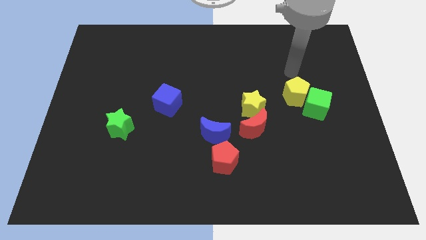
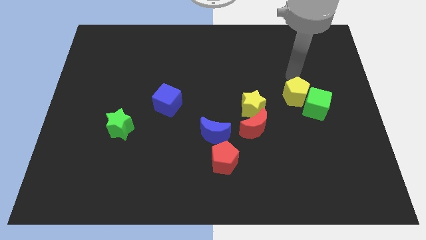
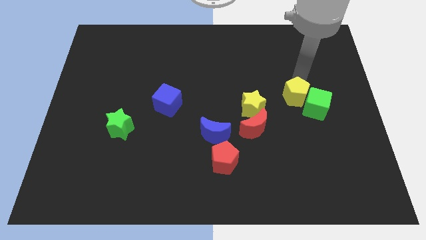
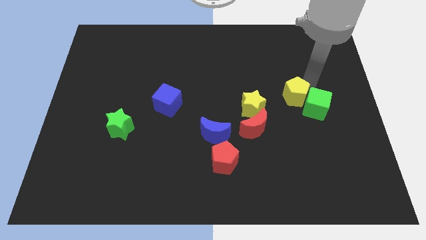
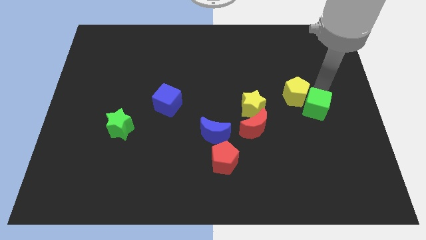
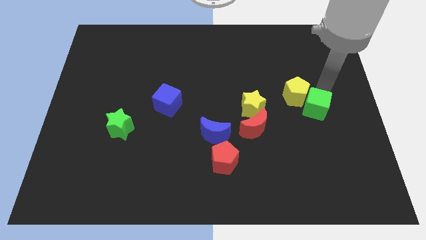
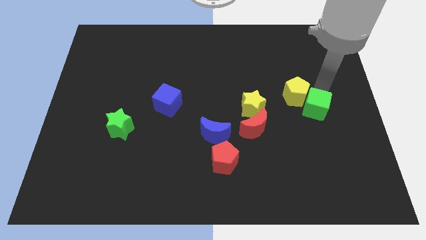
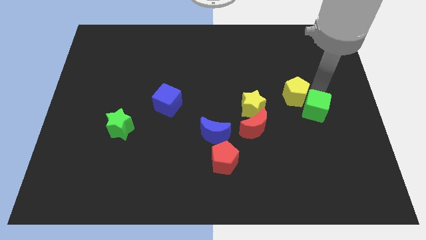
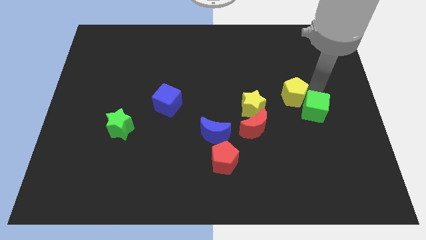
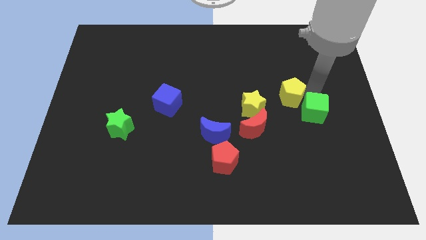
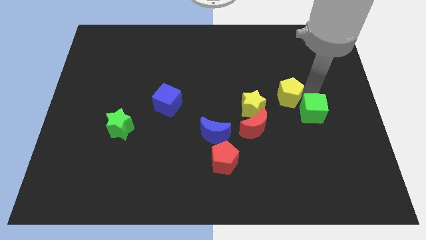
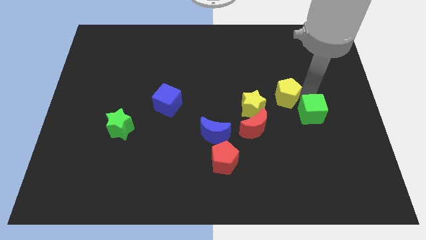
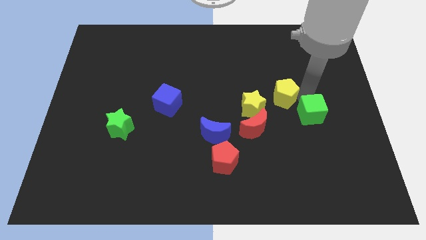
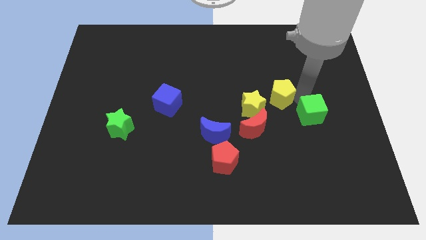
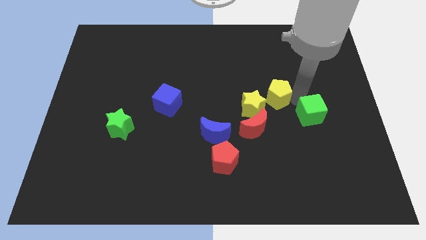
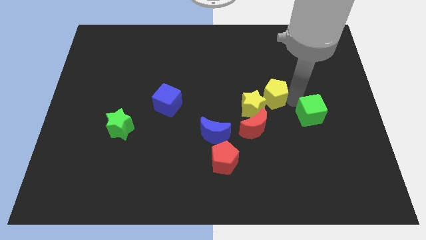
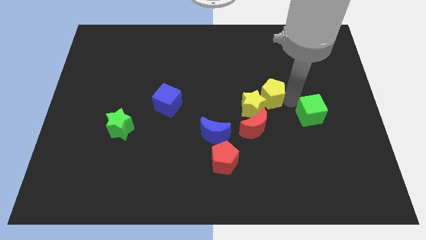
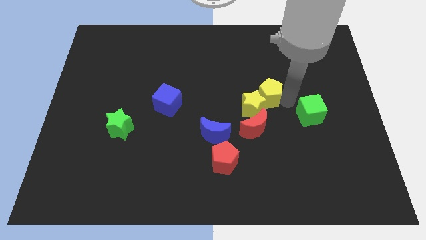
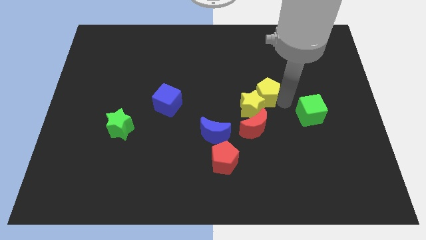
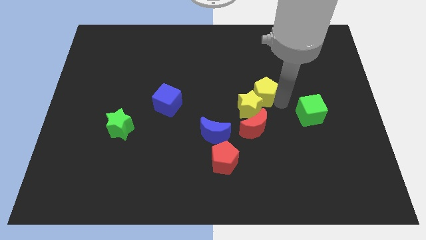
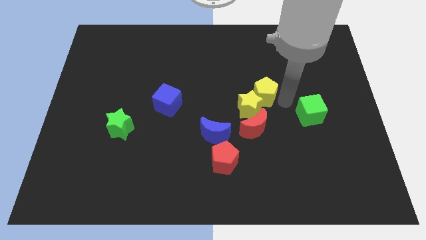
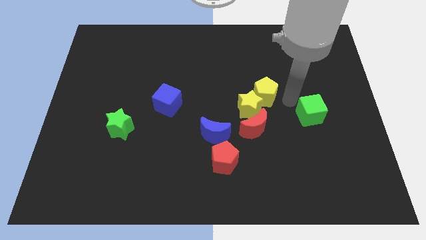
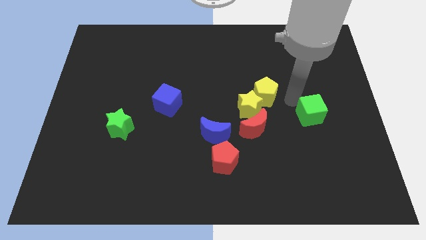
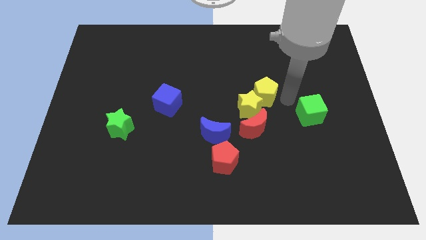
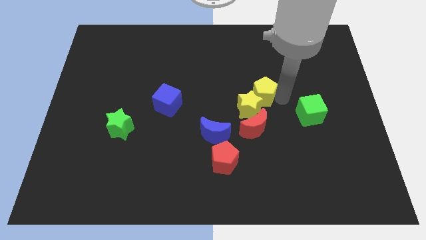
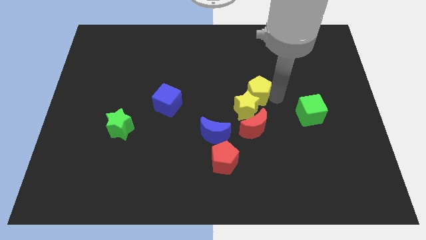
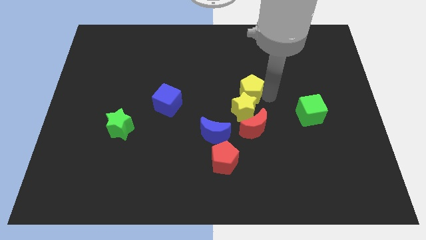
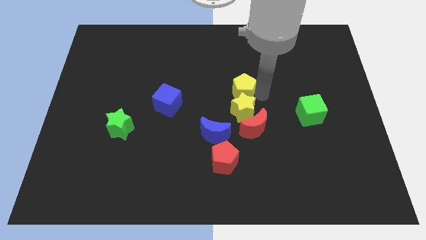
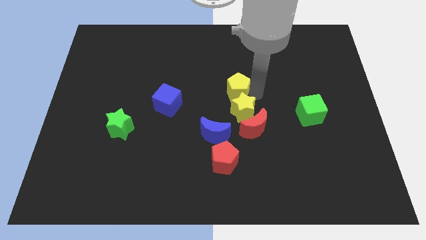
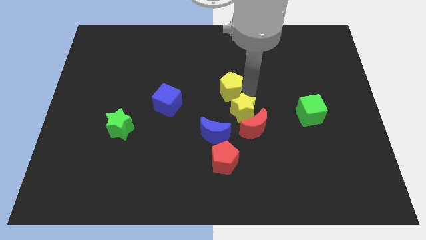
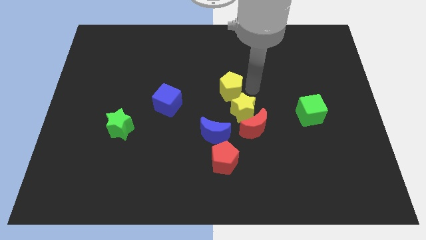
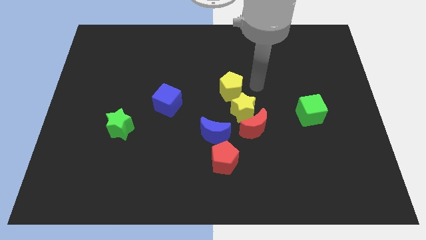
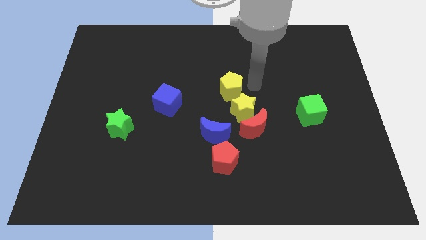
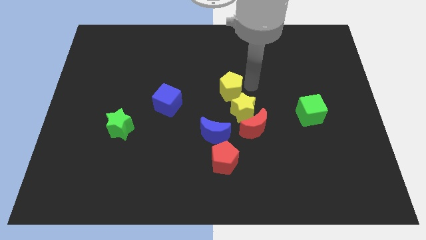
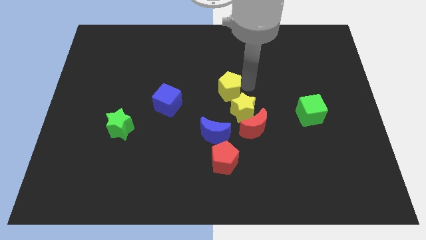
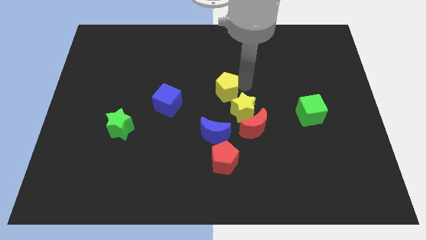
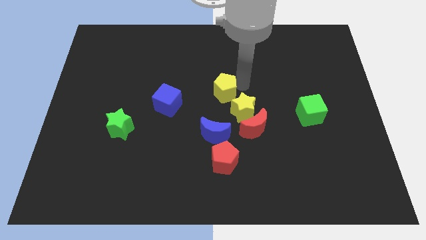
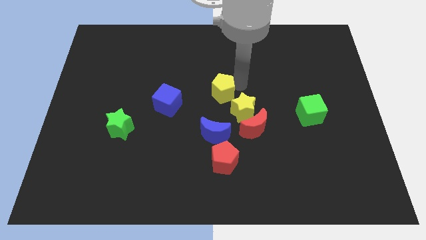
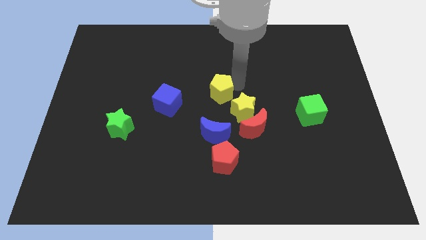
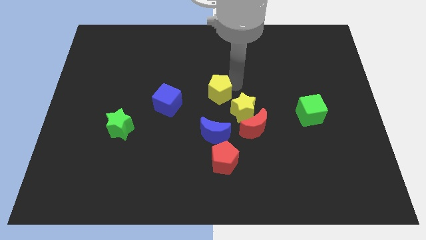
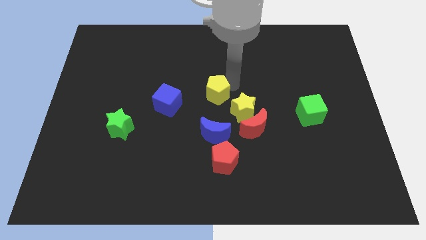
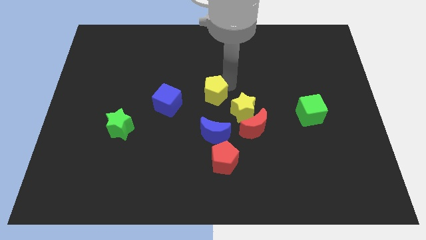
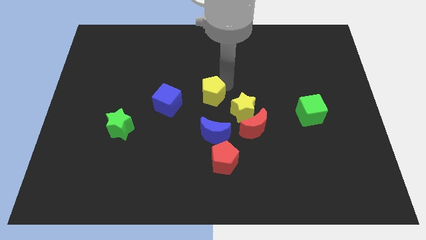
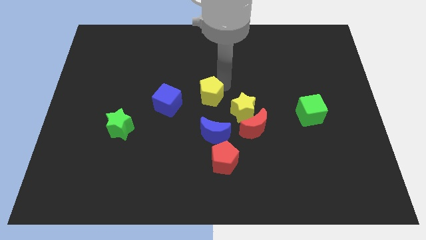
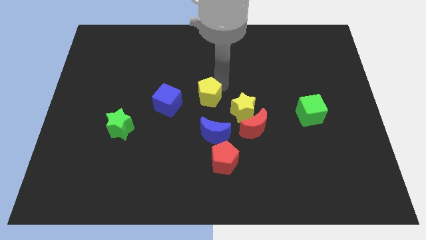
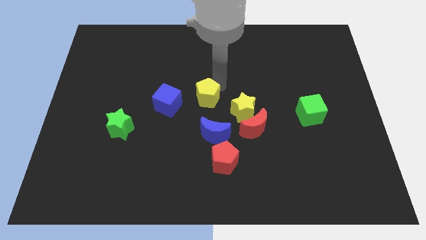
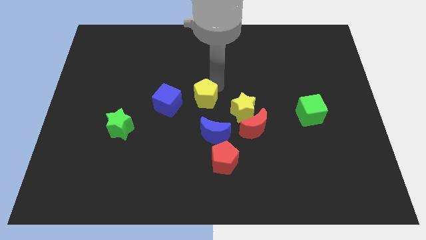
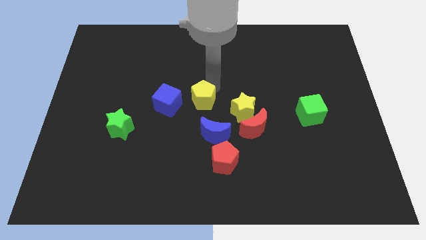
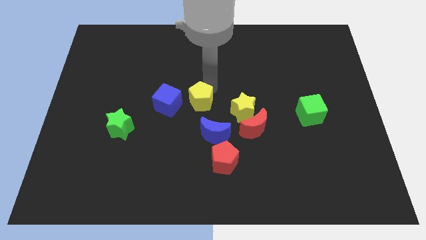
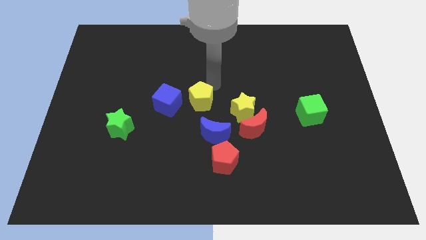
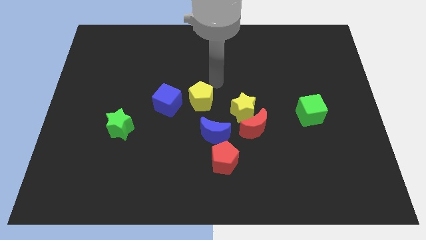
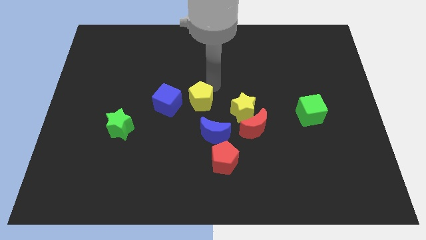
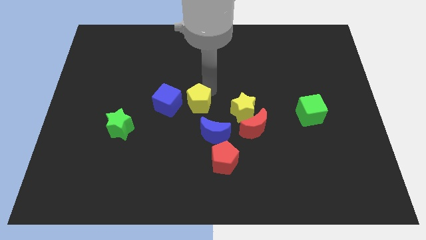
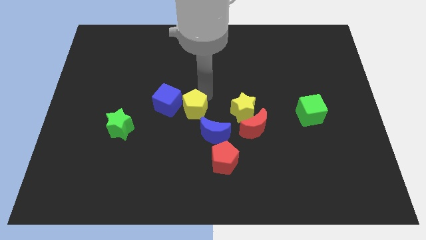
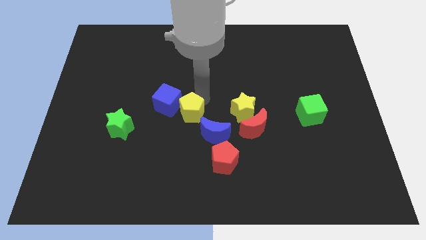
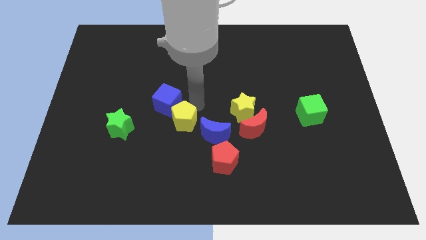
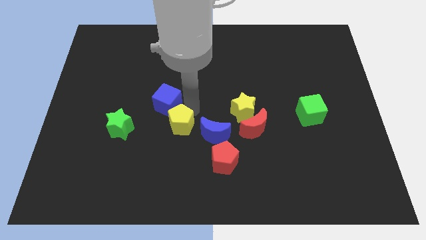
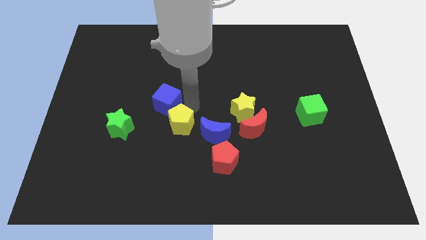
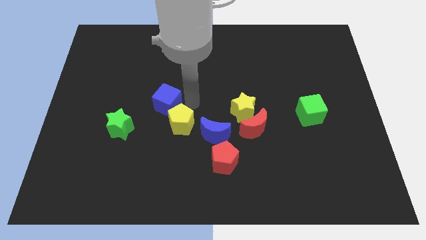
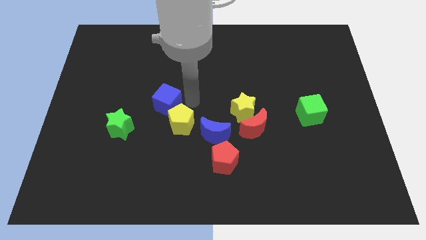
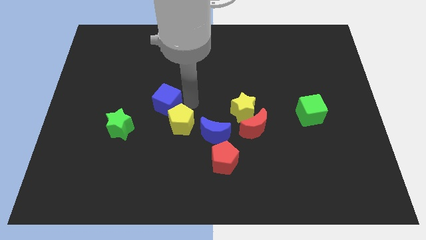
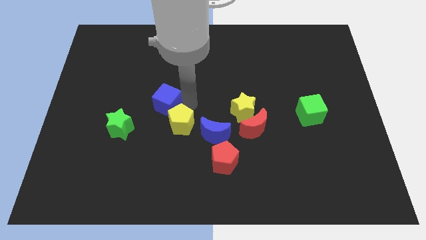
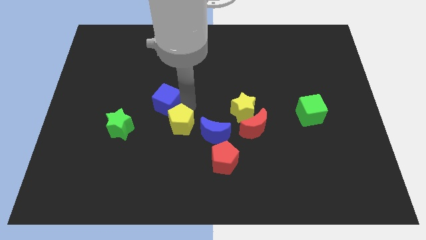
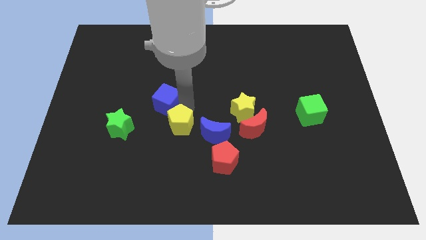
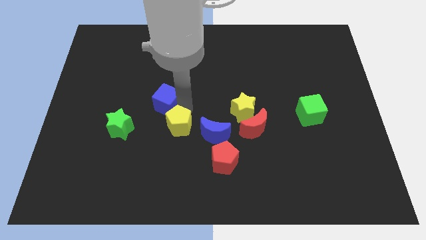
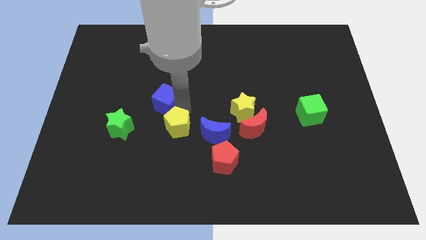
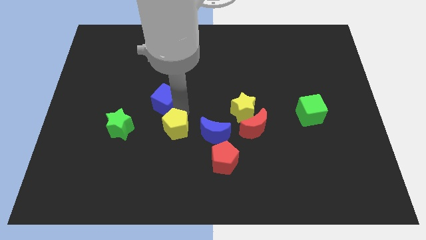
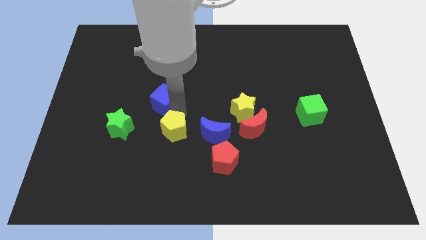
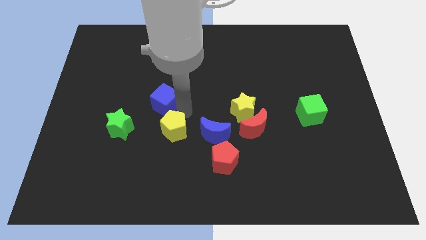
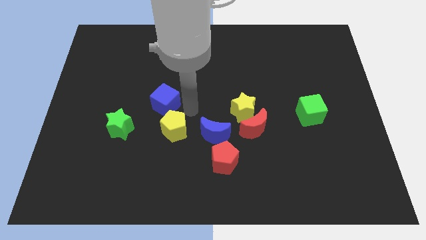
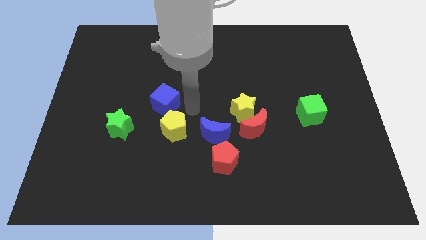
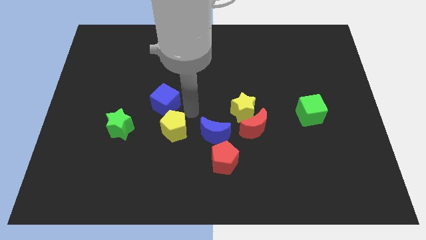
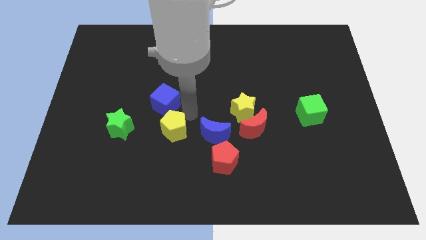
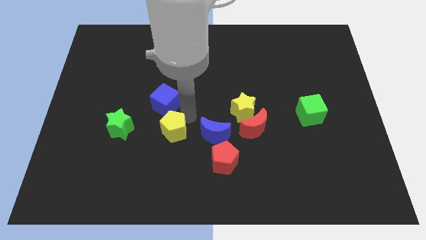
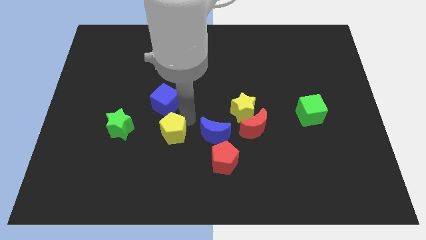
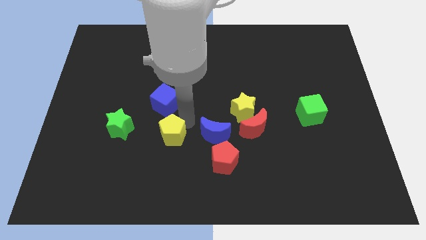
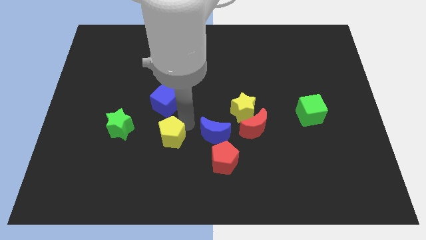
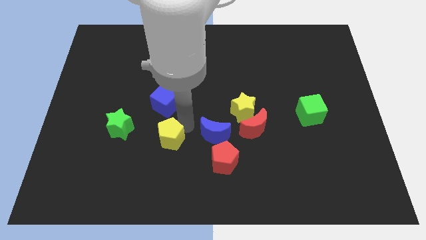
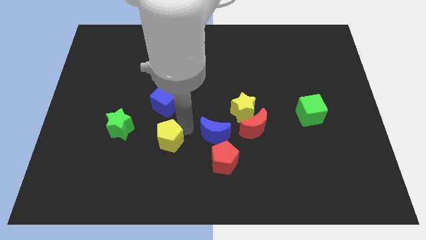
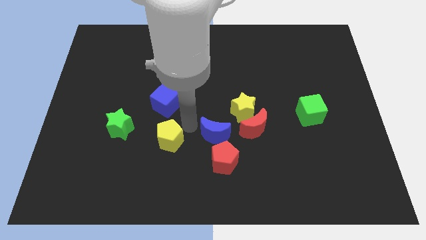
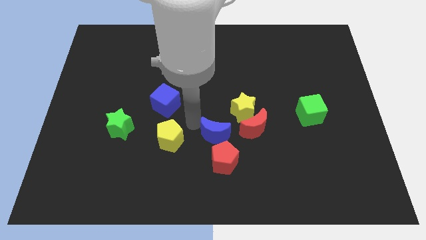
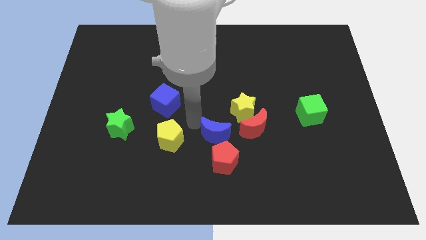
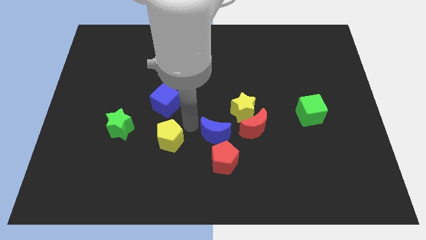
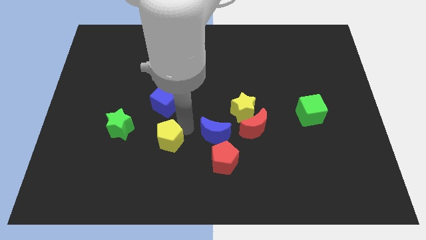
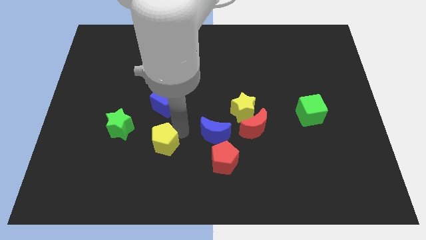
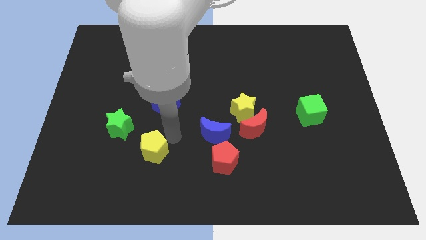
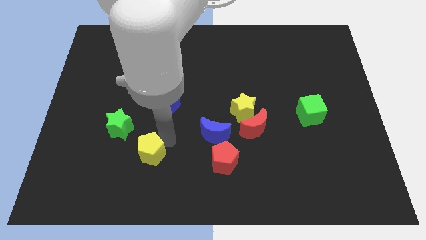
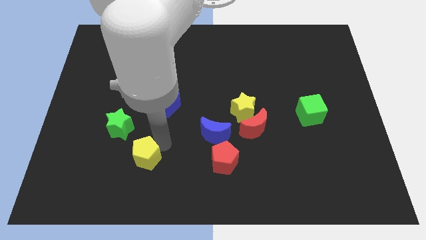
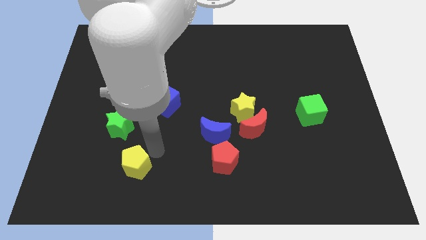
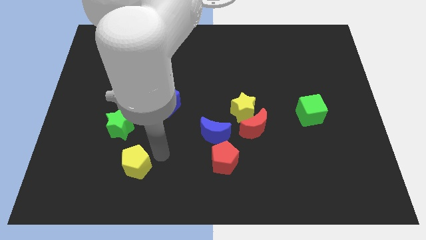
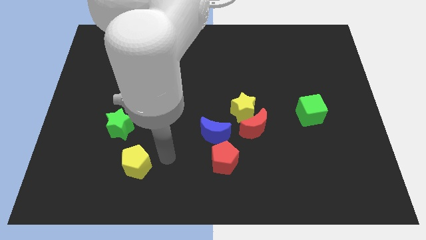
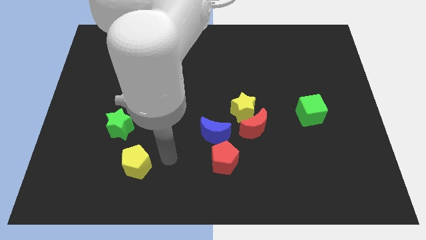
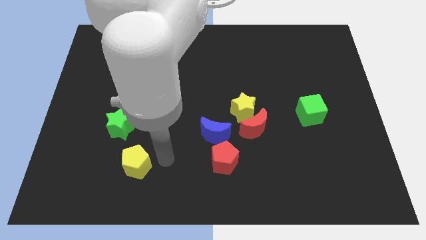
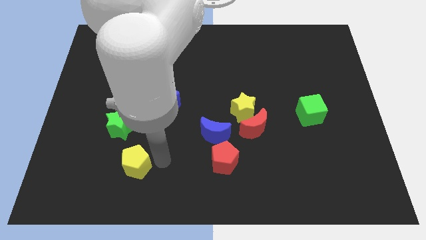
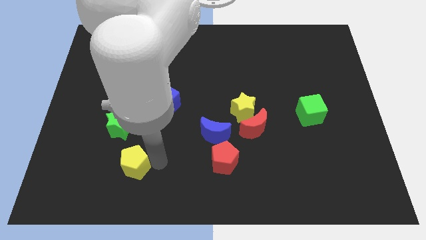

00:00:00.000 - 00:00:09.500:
push the yellow pentagon to the bottom side of the green star
